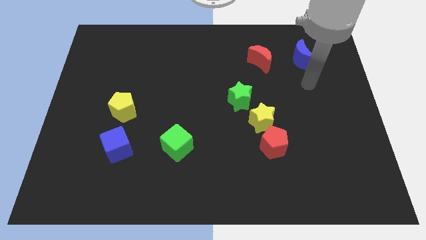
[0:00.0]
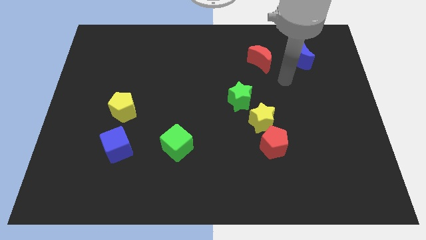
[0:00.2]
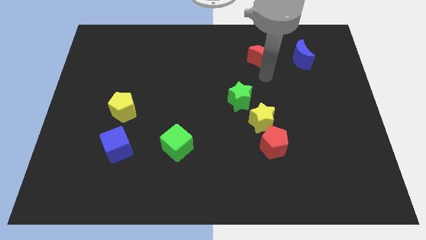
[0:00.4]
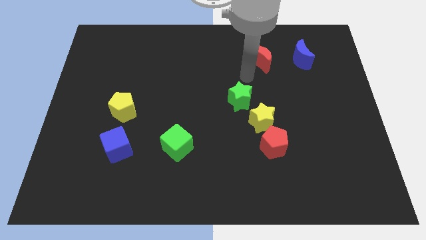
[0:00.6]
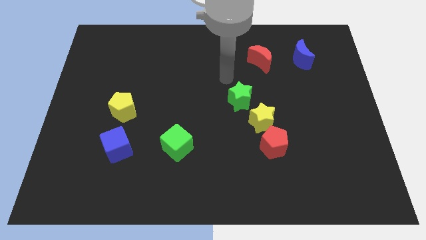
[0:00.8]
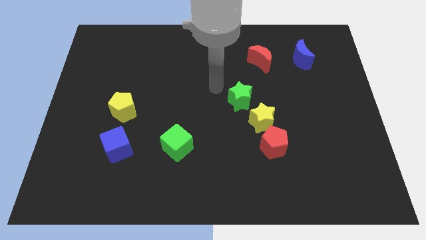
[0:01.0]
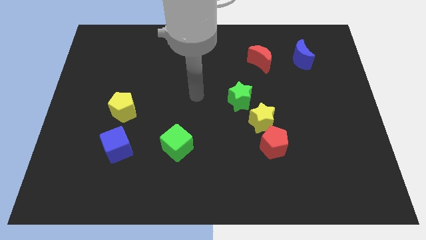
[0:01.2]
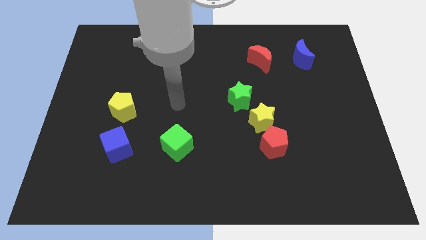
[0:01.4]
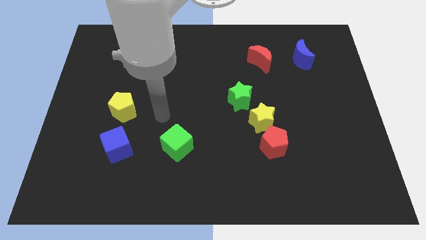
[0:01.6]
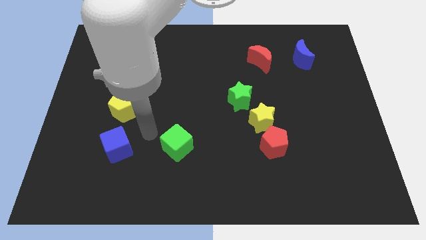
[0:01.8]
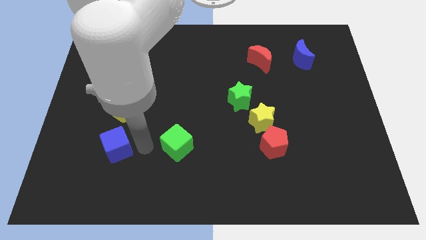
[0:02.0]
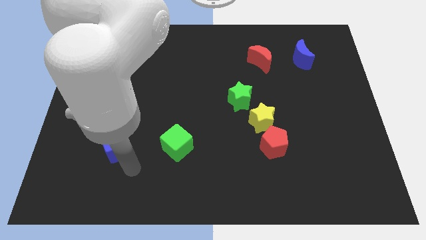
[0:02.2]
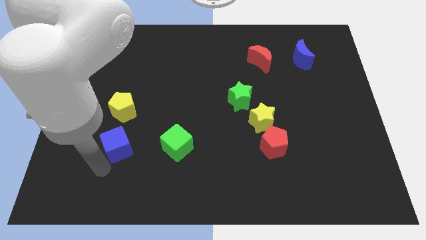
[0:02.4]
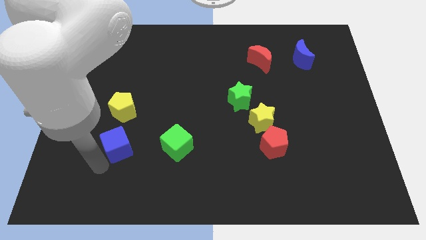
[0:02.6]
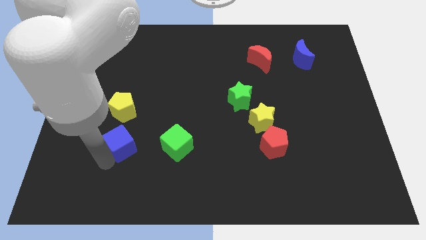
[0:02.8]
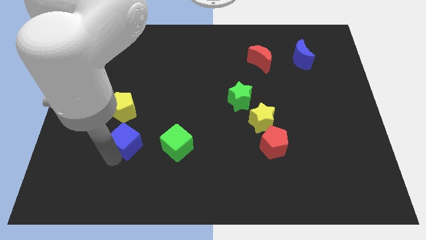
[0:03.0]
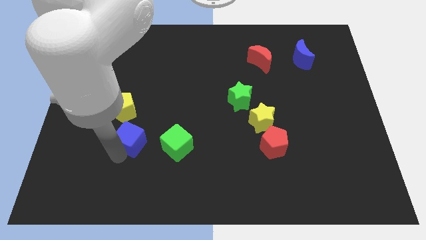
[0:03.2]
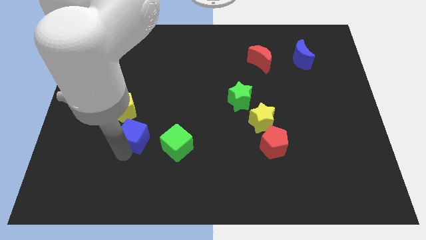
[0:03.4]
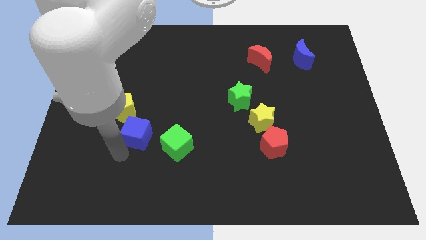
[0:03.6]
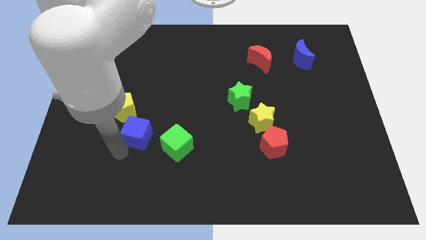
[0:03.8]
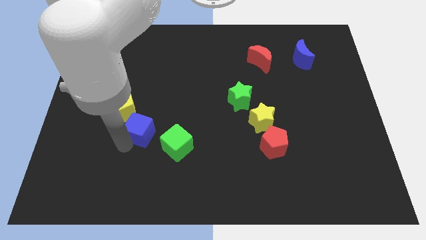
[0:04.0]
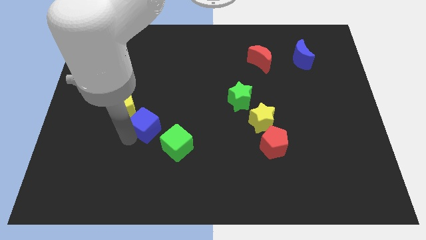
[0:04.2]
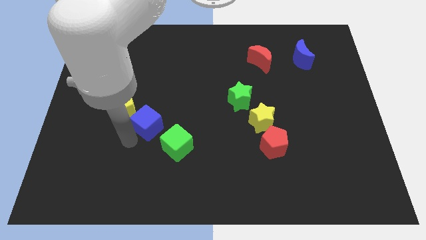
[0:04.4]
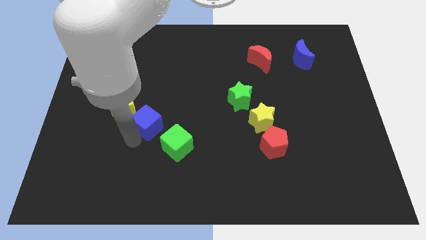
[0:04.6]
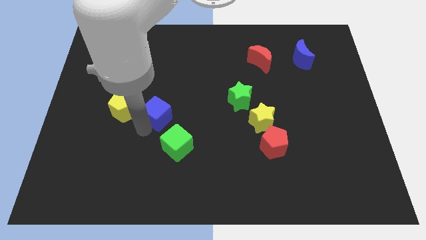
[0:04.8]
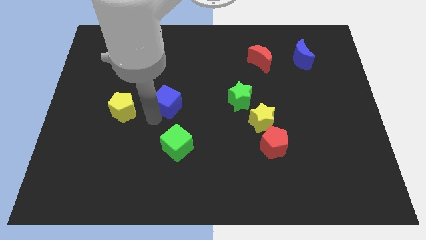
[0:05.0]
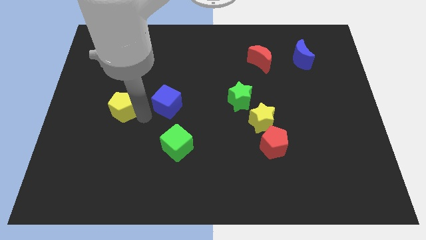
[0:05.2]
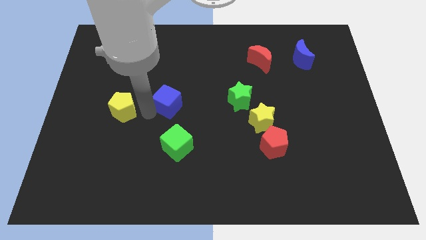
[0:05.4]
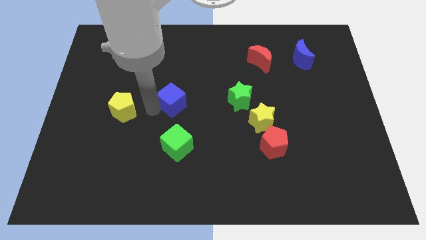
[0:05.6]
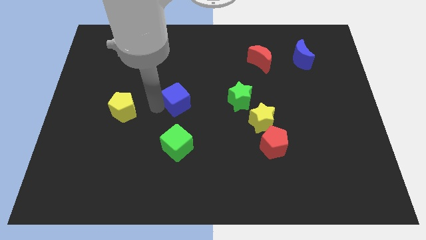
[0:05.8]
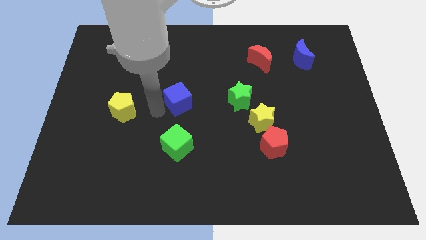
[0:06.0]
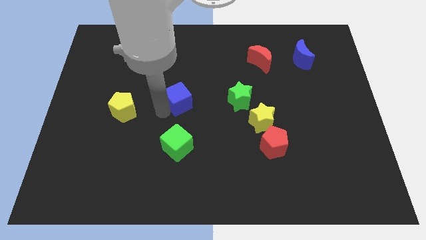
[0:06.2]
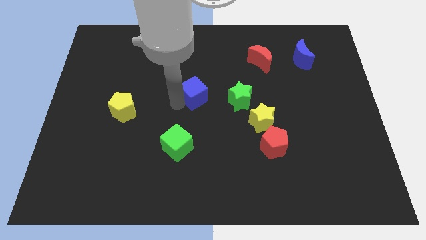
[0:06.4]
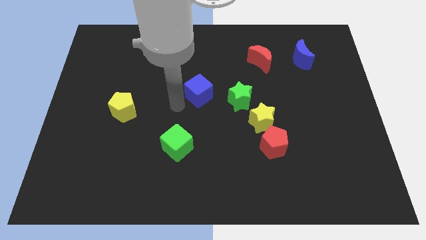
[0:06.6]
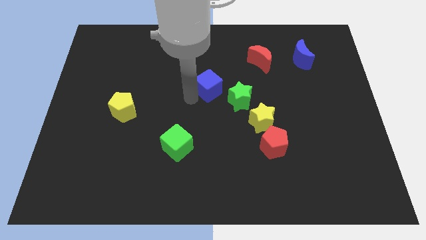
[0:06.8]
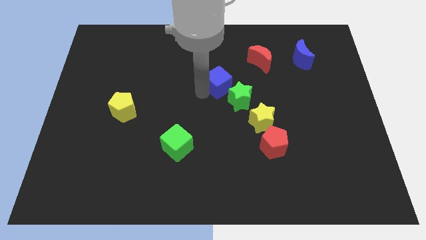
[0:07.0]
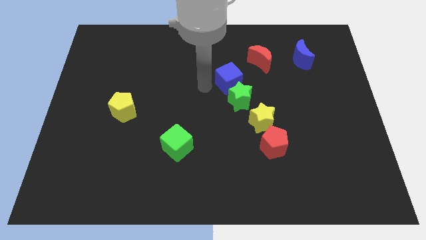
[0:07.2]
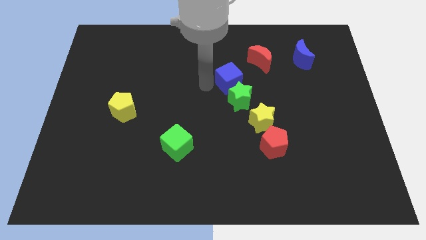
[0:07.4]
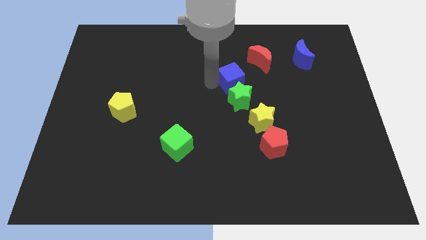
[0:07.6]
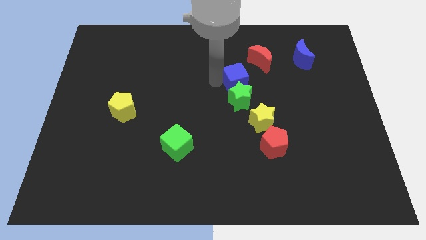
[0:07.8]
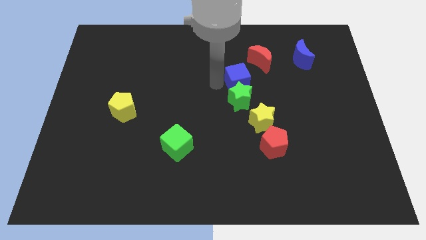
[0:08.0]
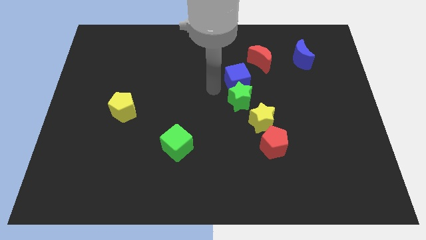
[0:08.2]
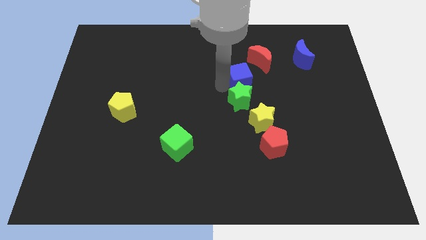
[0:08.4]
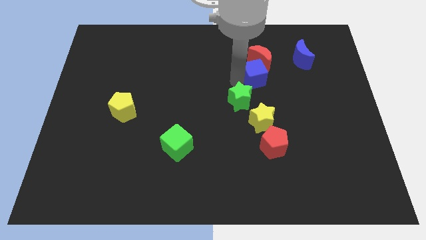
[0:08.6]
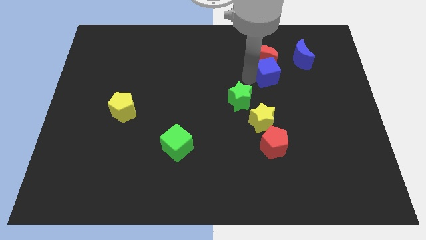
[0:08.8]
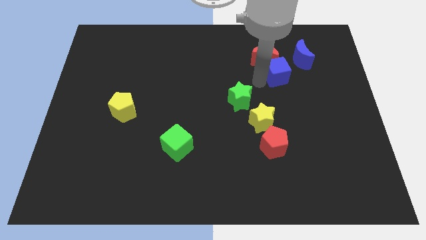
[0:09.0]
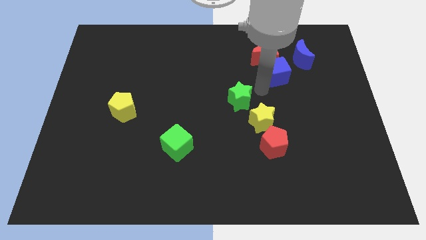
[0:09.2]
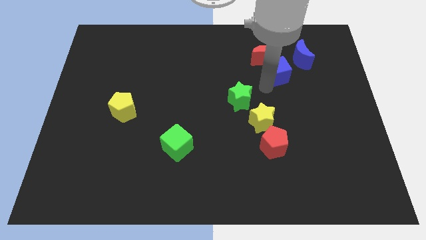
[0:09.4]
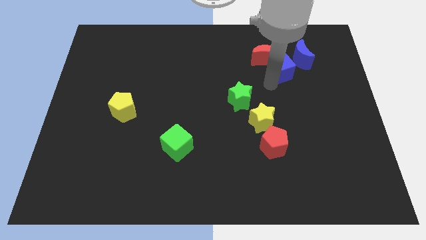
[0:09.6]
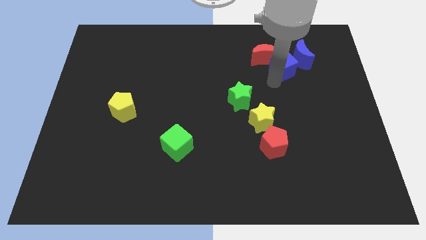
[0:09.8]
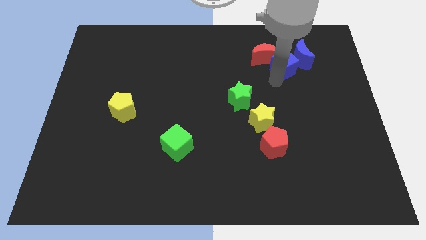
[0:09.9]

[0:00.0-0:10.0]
slide the blue cube next to the blue moon

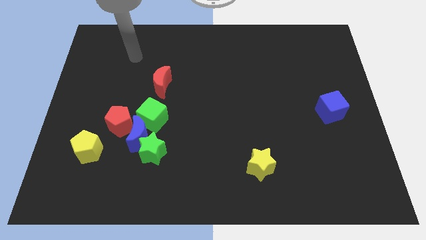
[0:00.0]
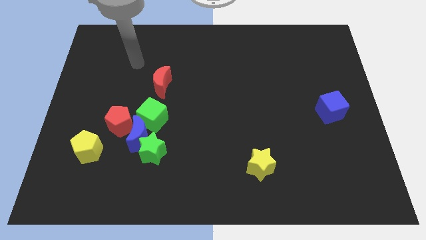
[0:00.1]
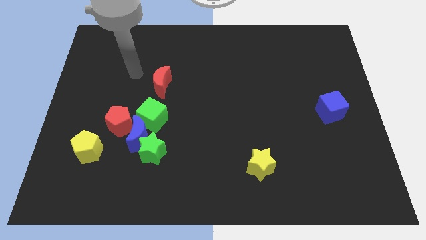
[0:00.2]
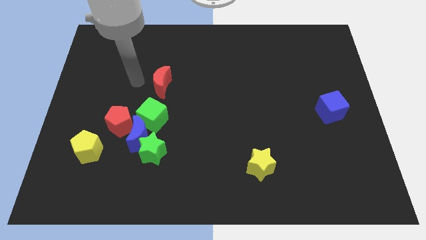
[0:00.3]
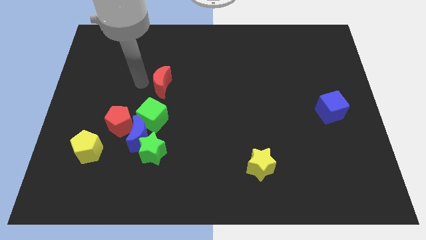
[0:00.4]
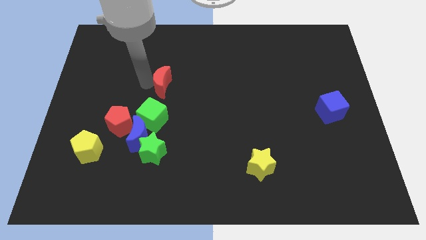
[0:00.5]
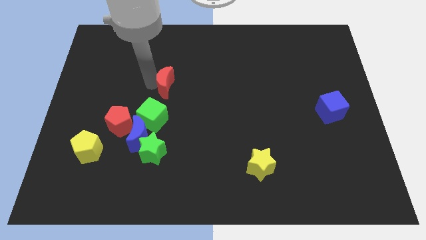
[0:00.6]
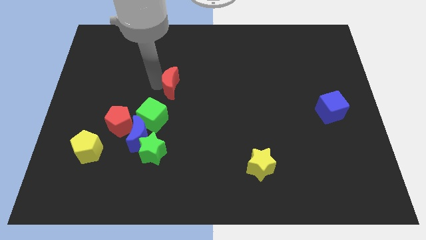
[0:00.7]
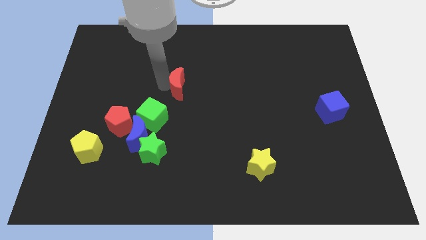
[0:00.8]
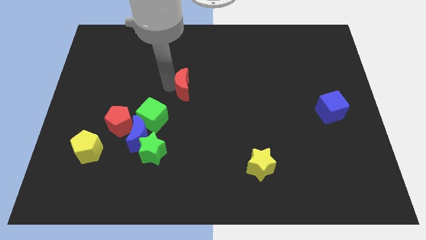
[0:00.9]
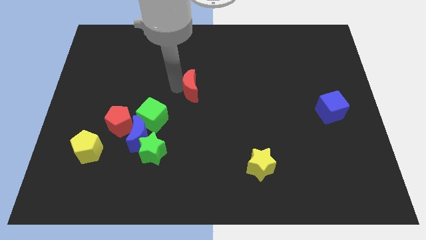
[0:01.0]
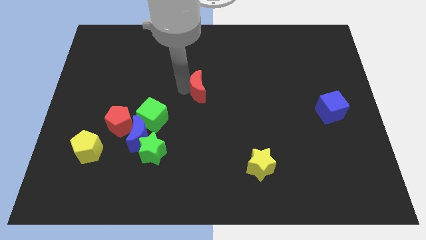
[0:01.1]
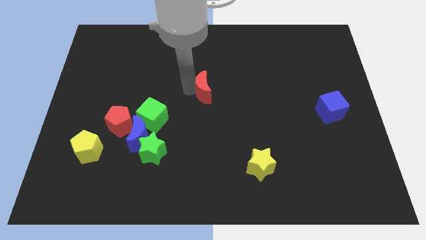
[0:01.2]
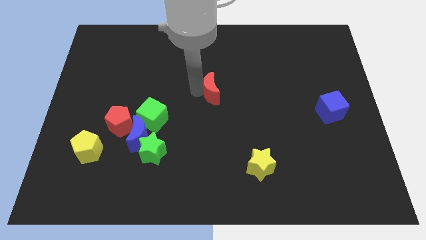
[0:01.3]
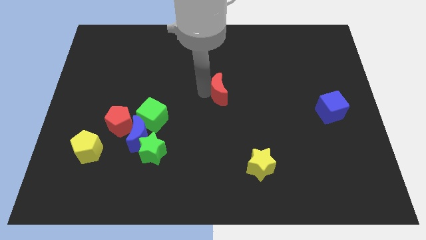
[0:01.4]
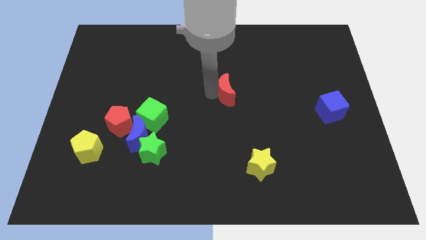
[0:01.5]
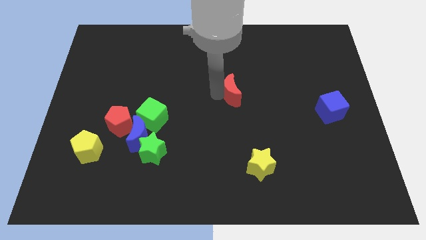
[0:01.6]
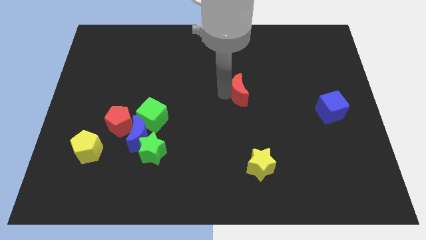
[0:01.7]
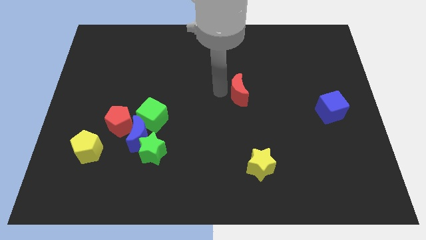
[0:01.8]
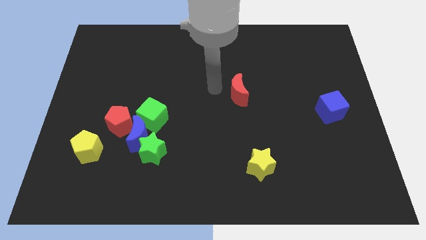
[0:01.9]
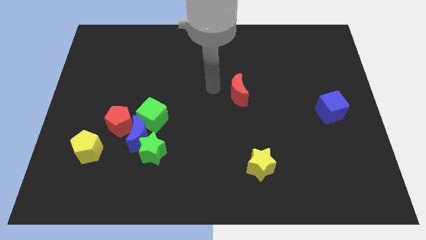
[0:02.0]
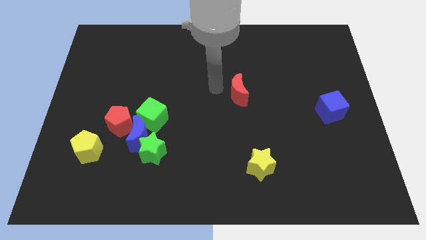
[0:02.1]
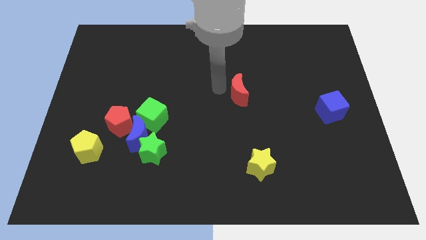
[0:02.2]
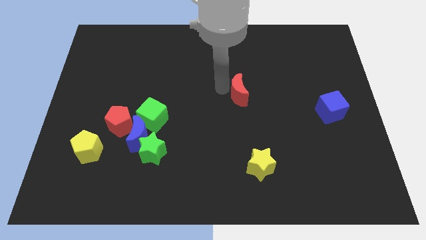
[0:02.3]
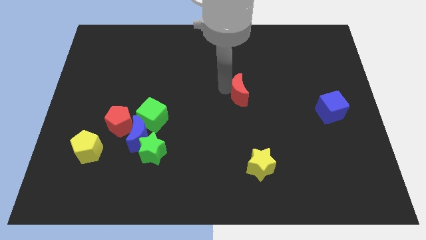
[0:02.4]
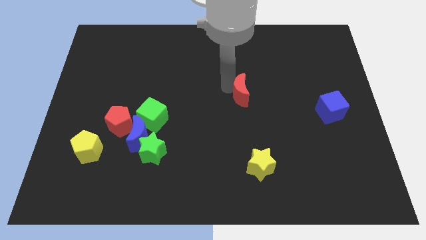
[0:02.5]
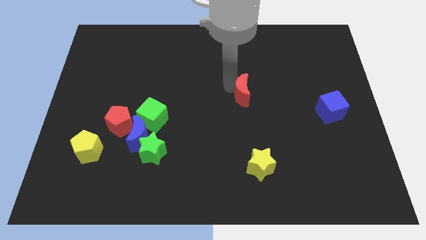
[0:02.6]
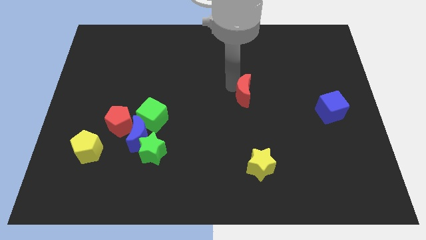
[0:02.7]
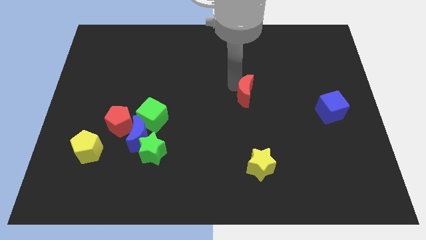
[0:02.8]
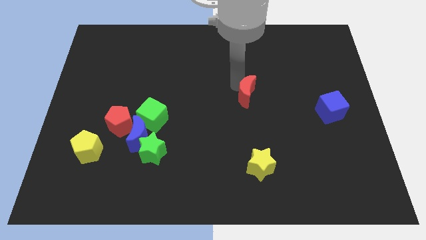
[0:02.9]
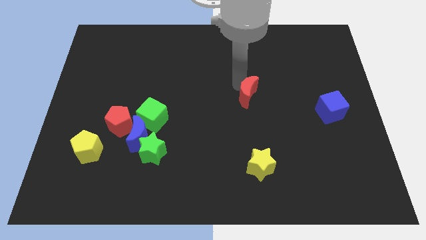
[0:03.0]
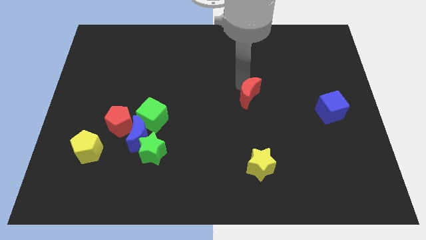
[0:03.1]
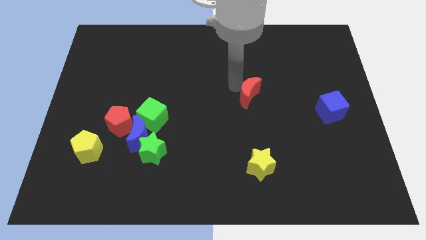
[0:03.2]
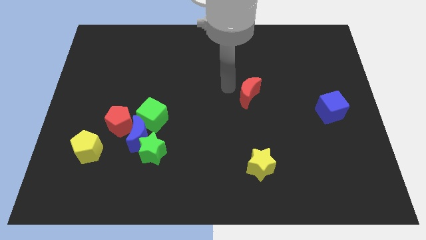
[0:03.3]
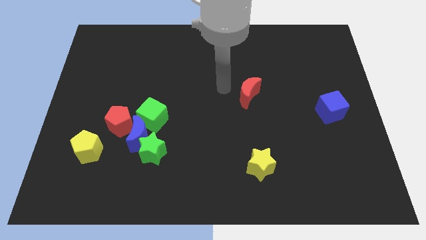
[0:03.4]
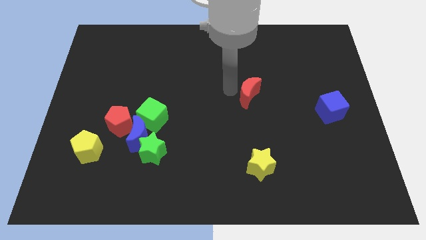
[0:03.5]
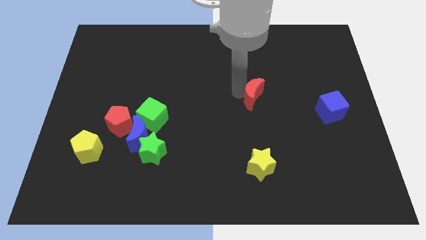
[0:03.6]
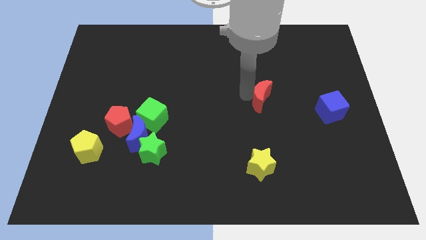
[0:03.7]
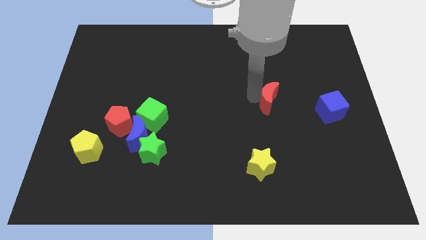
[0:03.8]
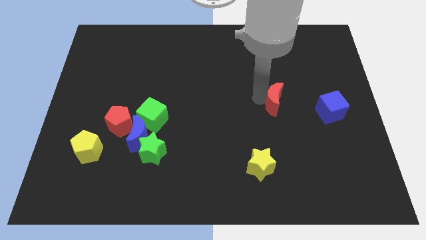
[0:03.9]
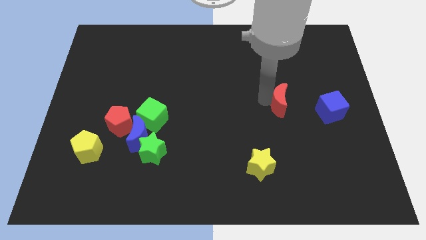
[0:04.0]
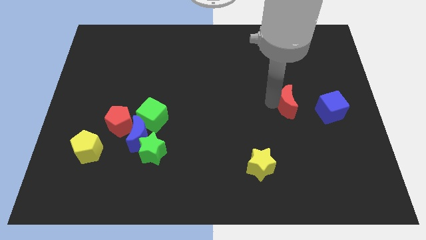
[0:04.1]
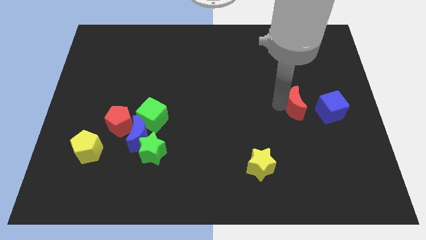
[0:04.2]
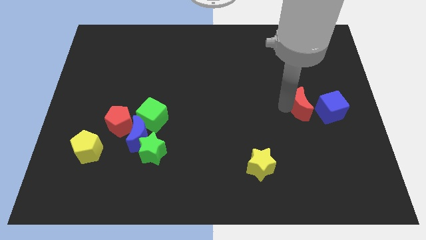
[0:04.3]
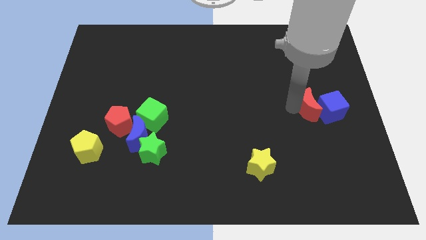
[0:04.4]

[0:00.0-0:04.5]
move the red moon next to the blue cube
